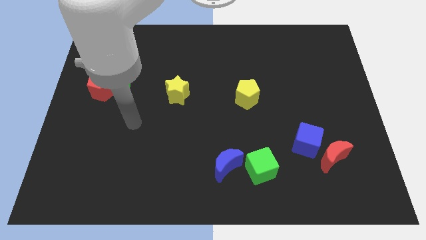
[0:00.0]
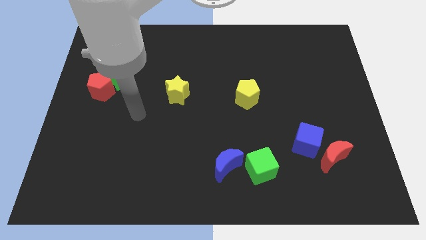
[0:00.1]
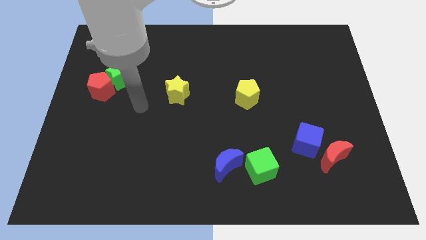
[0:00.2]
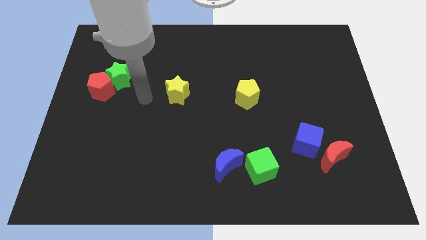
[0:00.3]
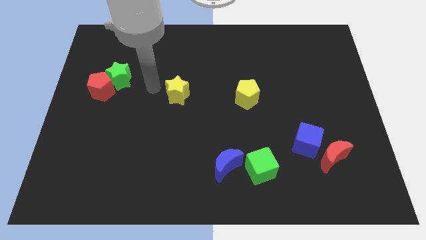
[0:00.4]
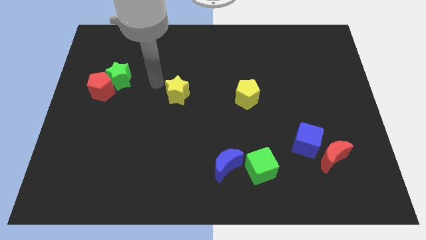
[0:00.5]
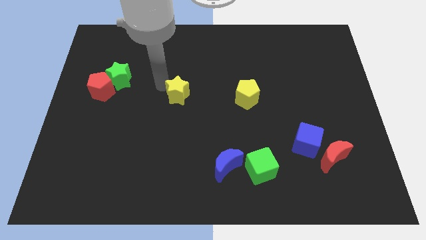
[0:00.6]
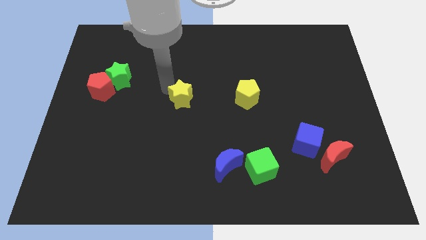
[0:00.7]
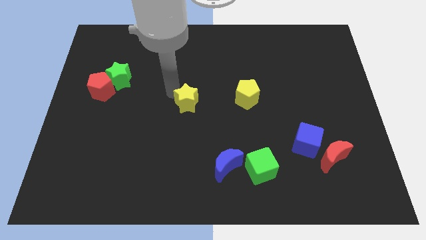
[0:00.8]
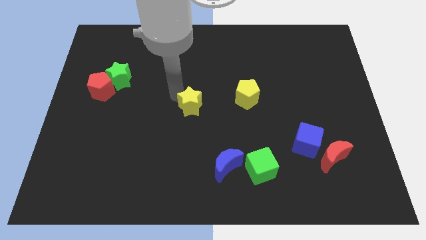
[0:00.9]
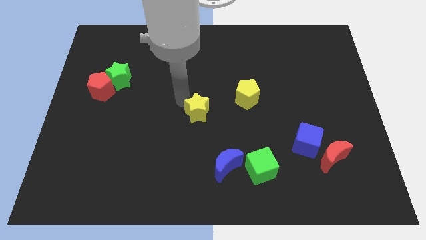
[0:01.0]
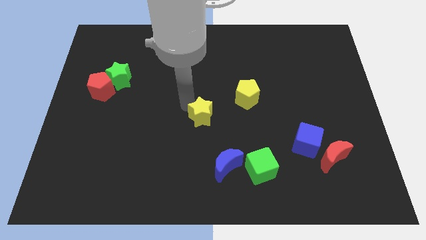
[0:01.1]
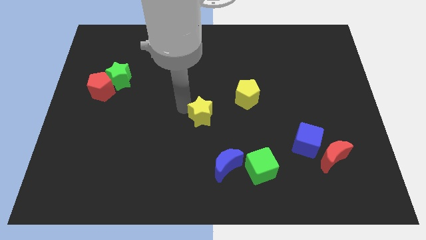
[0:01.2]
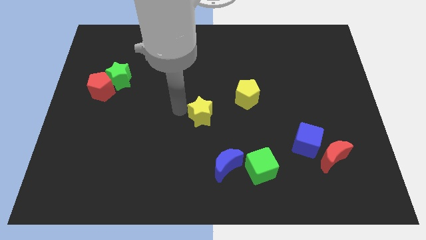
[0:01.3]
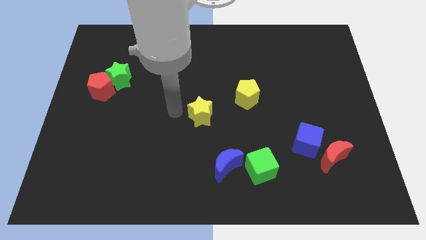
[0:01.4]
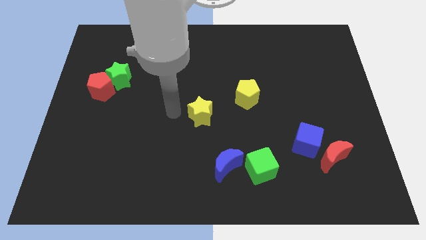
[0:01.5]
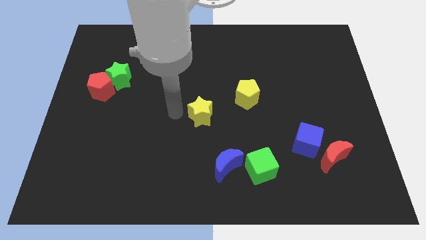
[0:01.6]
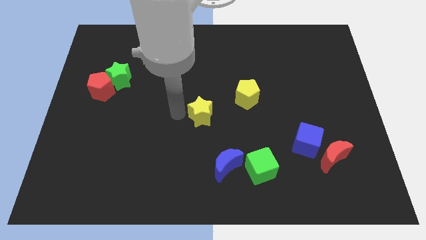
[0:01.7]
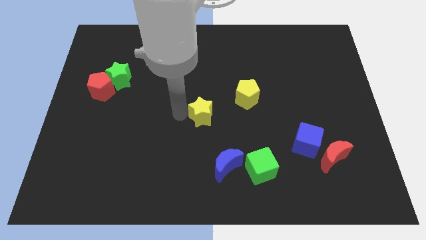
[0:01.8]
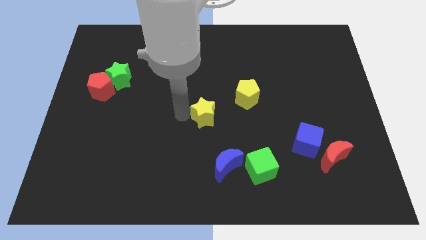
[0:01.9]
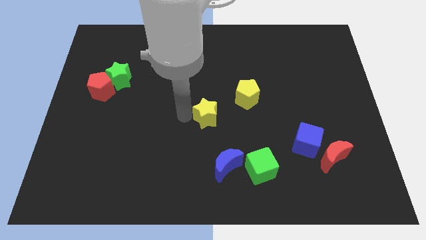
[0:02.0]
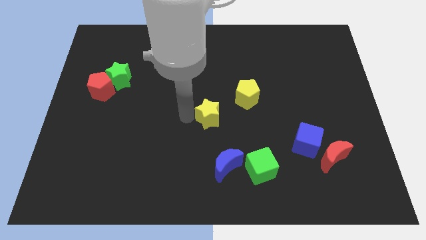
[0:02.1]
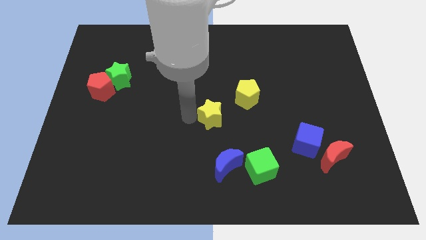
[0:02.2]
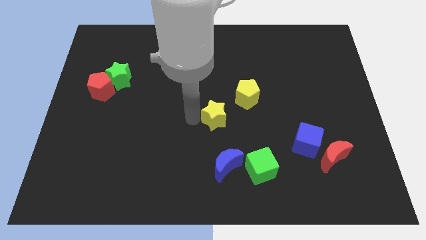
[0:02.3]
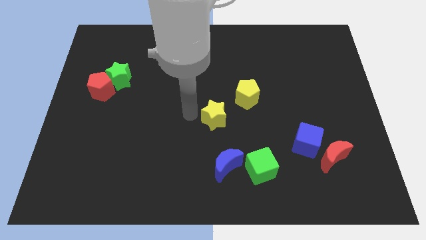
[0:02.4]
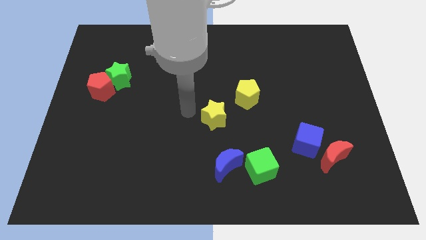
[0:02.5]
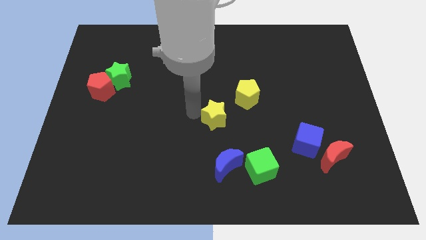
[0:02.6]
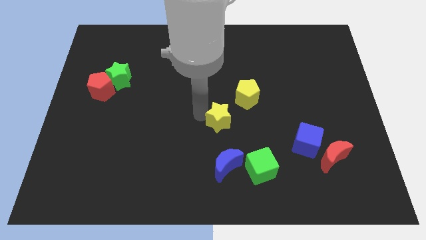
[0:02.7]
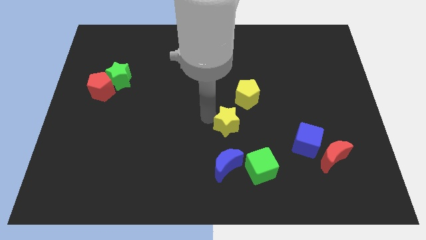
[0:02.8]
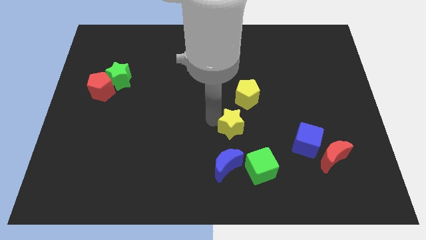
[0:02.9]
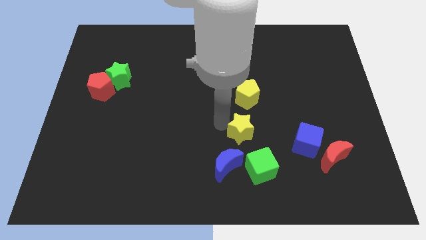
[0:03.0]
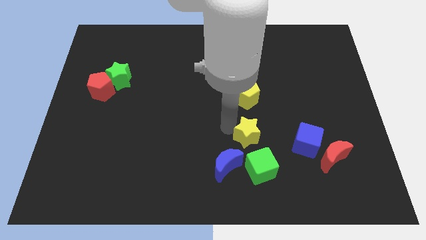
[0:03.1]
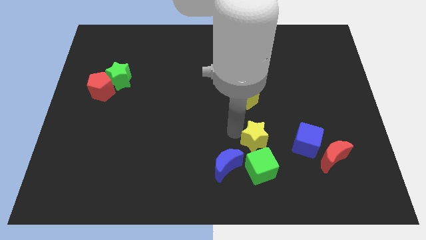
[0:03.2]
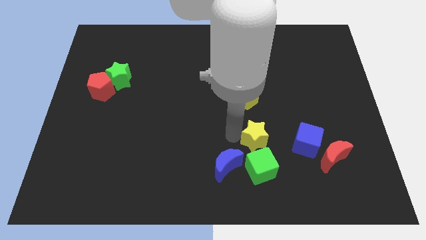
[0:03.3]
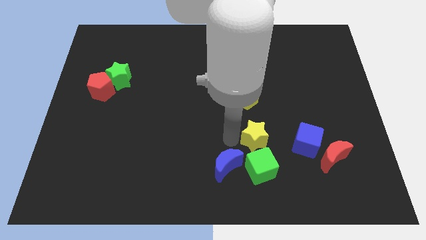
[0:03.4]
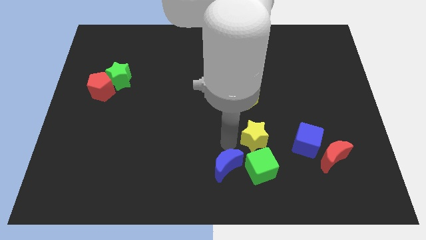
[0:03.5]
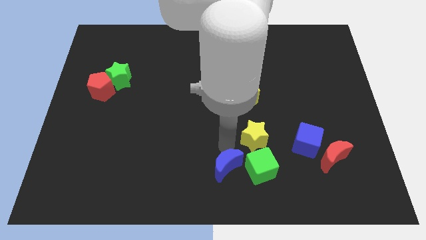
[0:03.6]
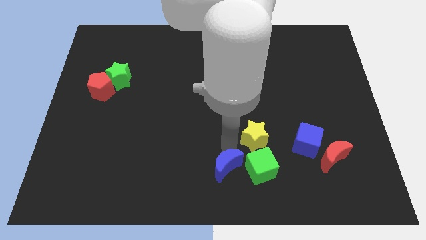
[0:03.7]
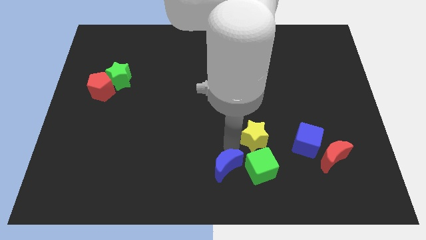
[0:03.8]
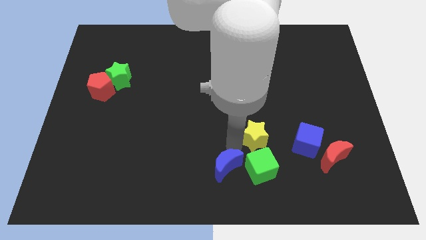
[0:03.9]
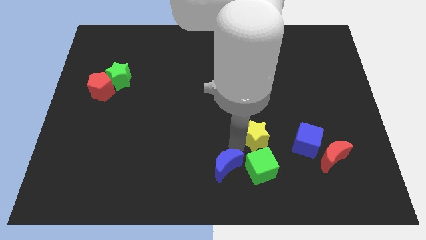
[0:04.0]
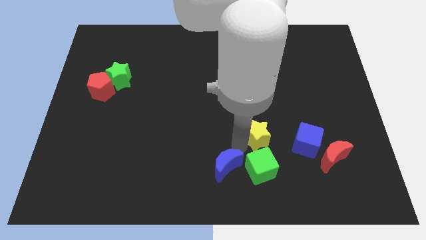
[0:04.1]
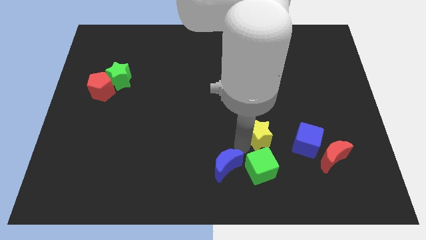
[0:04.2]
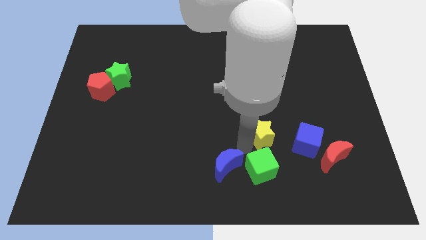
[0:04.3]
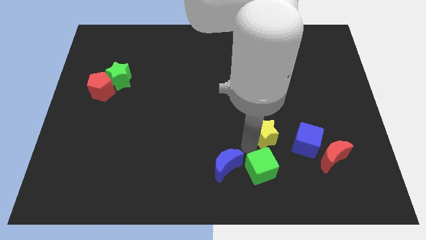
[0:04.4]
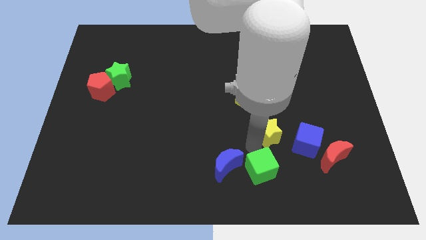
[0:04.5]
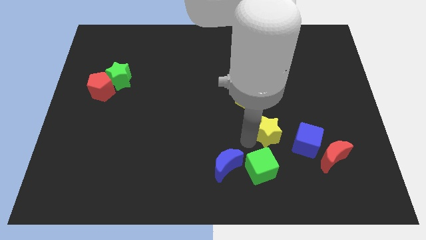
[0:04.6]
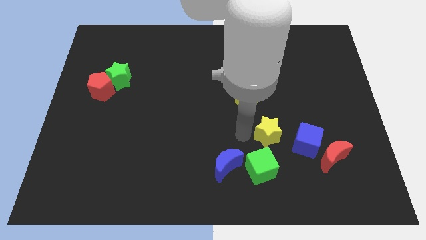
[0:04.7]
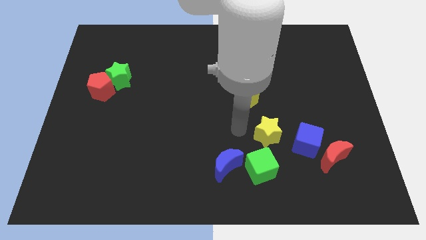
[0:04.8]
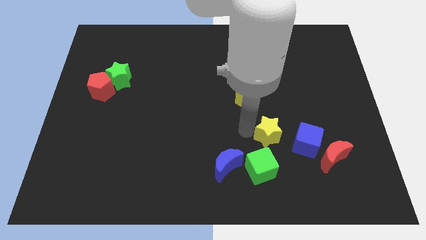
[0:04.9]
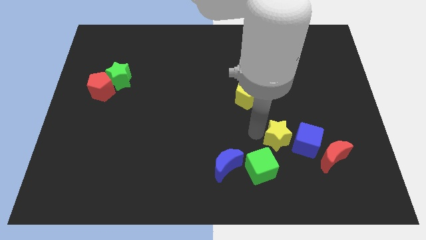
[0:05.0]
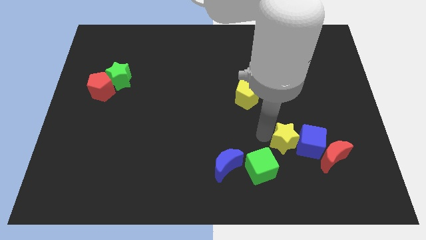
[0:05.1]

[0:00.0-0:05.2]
slide the yellow star to the blue cube

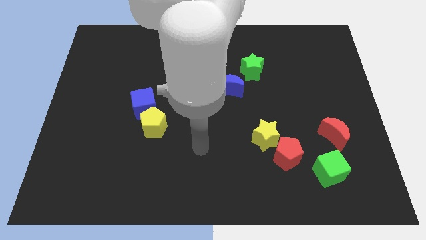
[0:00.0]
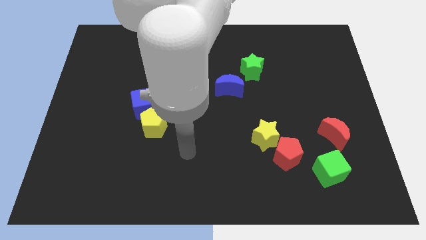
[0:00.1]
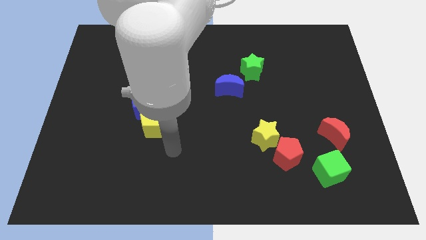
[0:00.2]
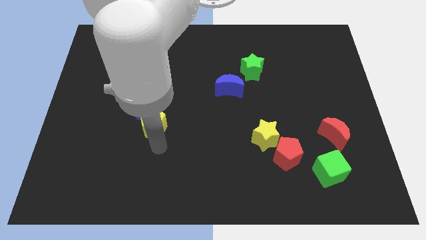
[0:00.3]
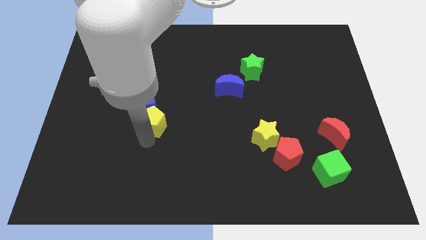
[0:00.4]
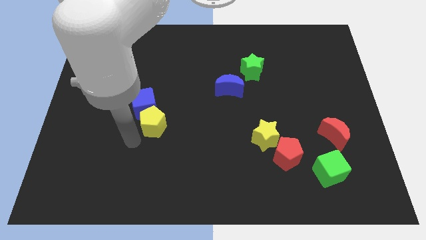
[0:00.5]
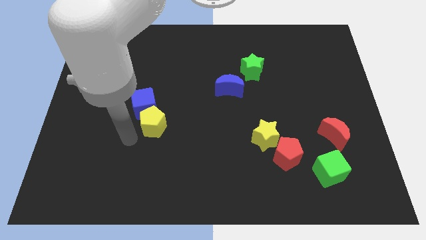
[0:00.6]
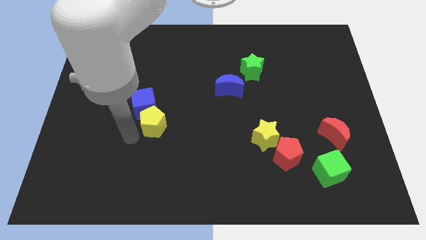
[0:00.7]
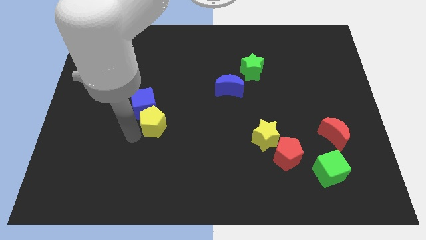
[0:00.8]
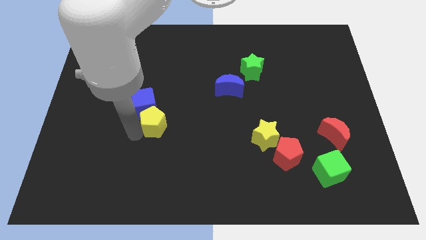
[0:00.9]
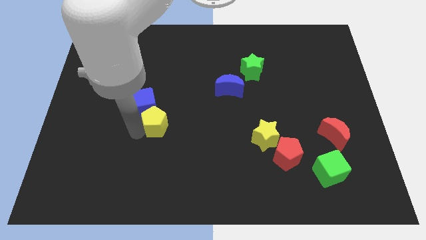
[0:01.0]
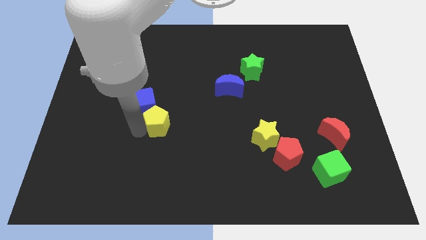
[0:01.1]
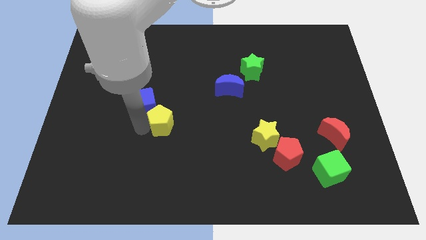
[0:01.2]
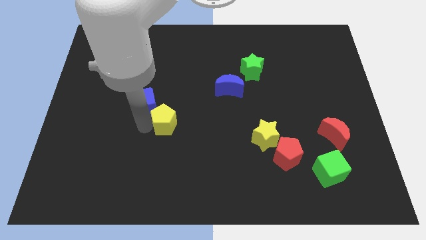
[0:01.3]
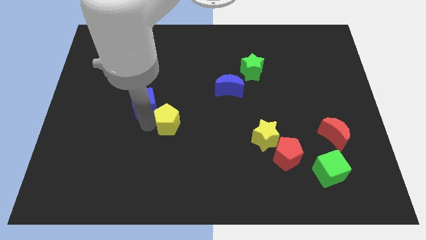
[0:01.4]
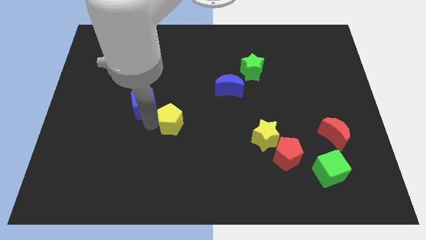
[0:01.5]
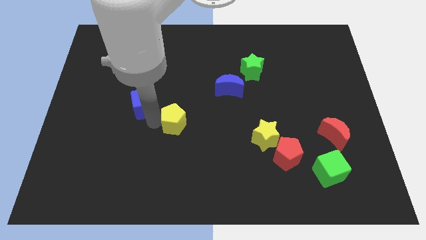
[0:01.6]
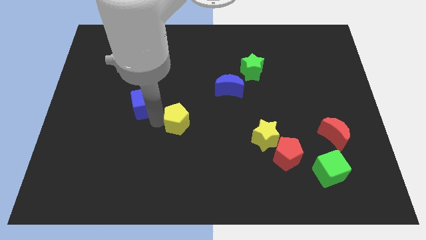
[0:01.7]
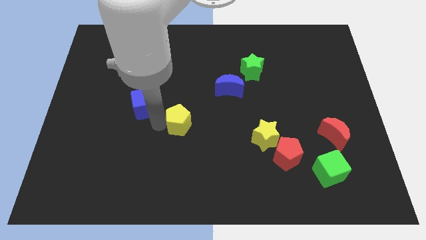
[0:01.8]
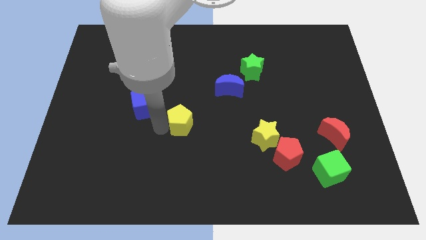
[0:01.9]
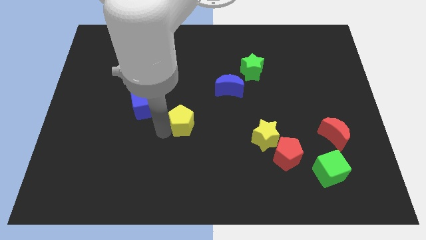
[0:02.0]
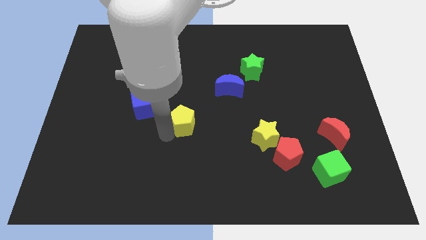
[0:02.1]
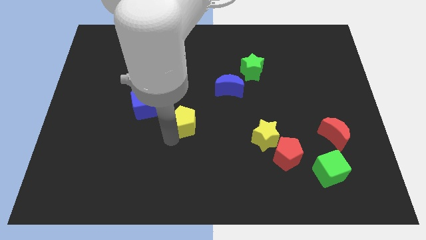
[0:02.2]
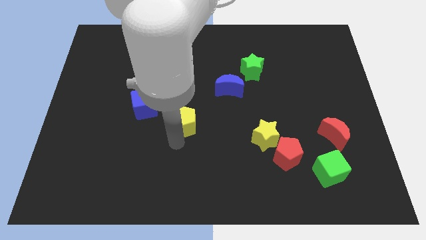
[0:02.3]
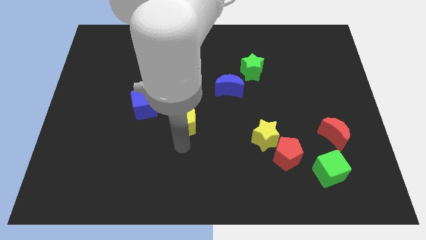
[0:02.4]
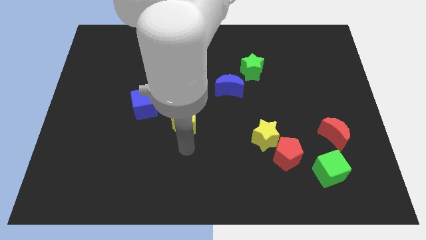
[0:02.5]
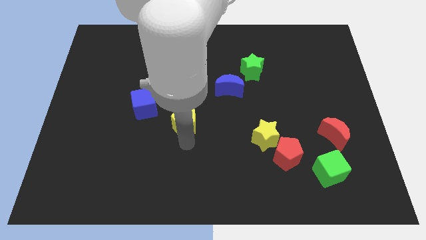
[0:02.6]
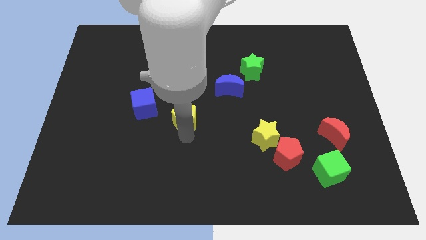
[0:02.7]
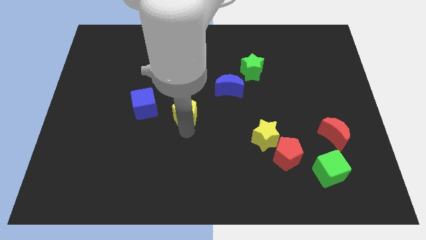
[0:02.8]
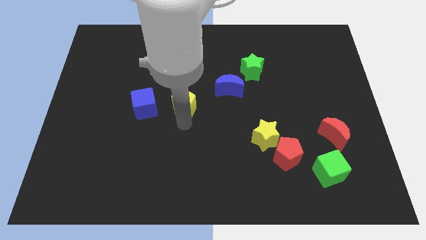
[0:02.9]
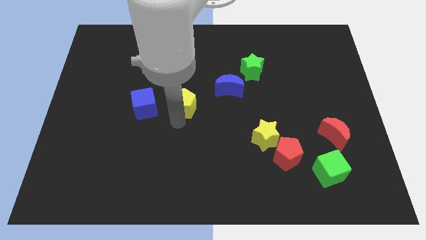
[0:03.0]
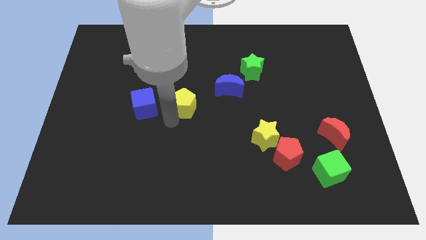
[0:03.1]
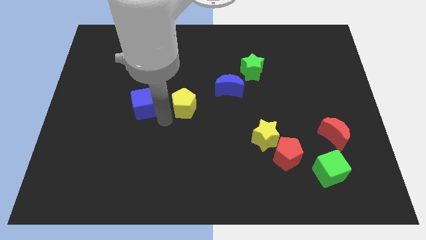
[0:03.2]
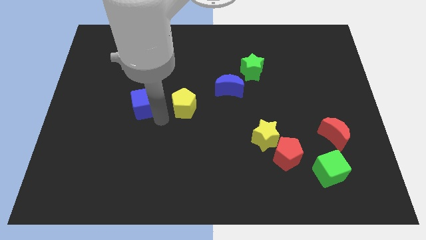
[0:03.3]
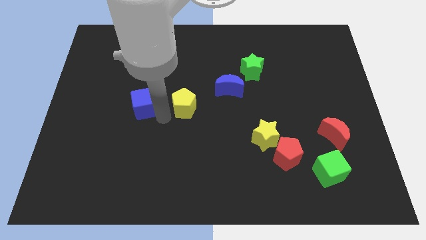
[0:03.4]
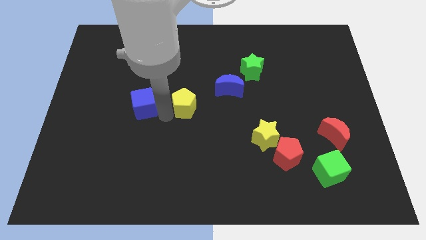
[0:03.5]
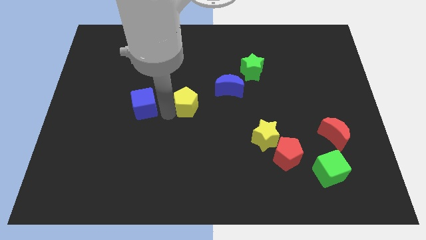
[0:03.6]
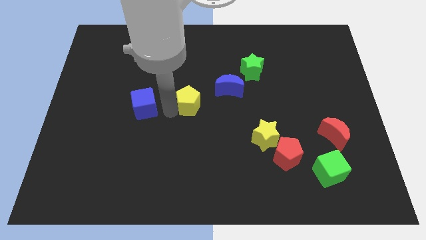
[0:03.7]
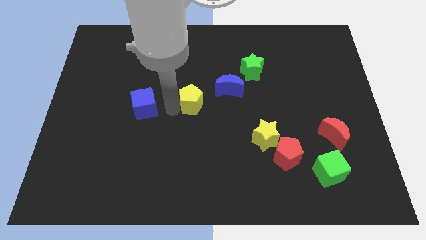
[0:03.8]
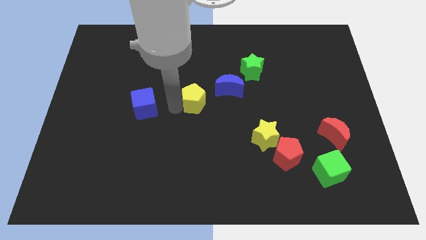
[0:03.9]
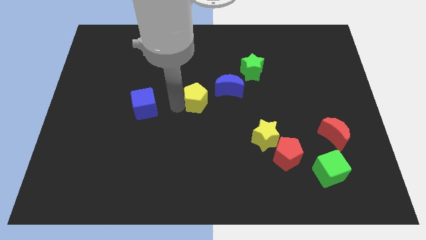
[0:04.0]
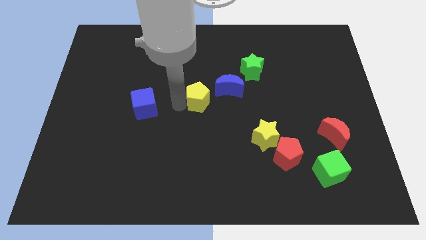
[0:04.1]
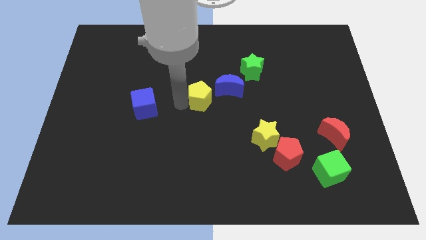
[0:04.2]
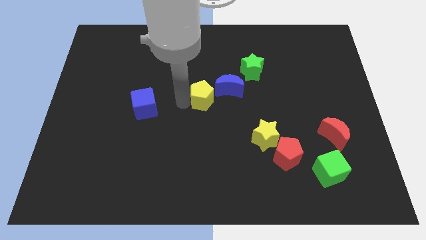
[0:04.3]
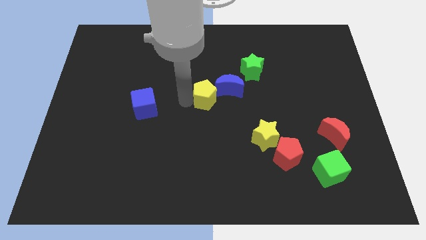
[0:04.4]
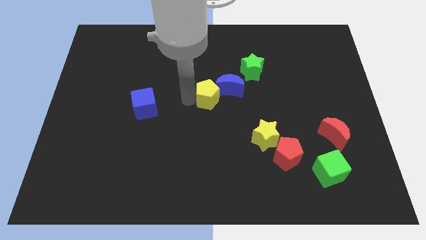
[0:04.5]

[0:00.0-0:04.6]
push the yellow pentagon next to the blue moon
